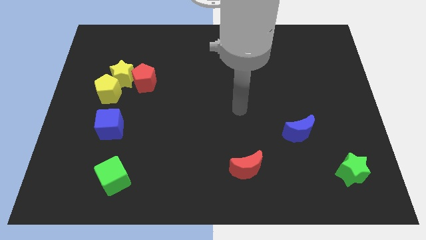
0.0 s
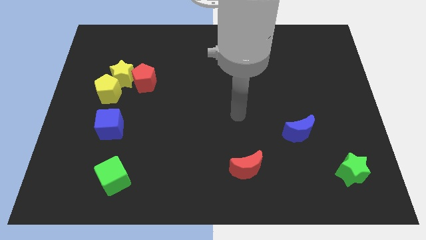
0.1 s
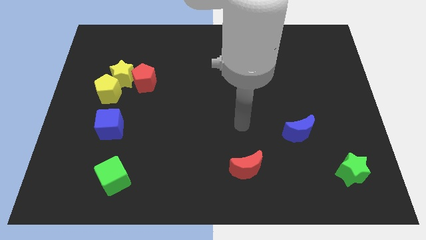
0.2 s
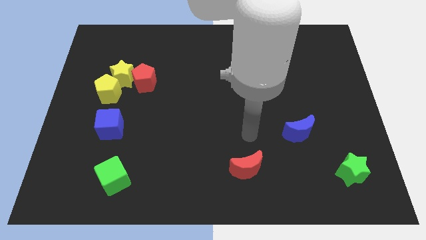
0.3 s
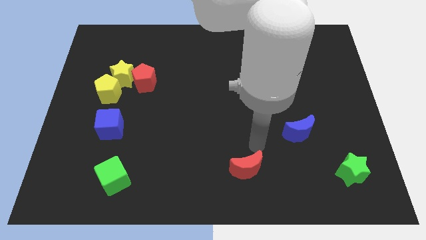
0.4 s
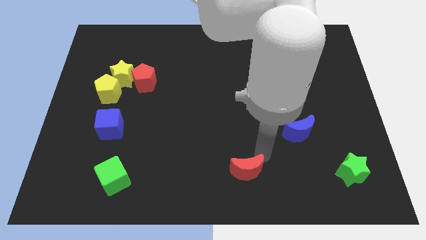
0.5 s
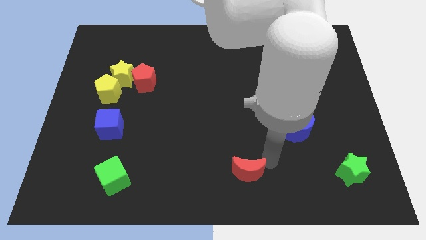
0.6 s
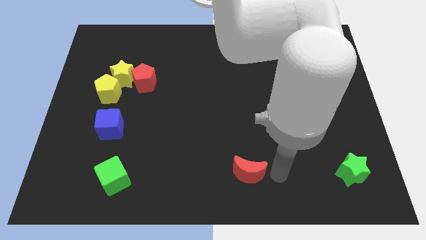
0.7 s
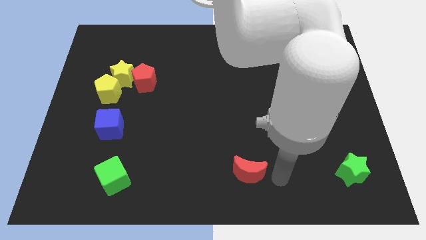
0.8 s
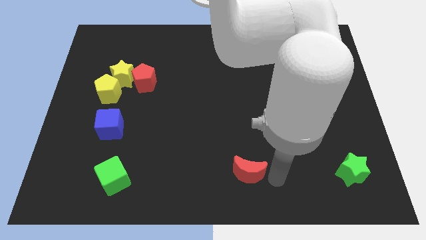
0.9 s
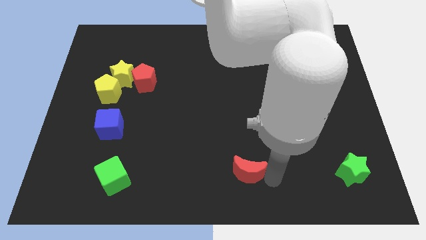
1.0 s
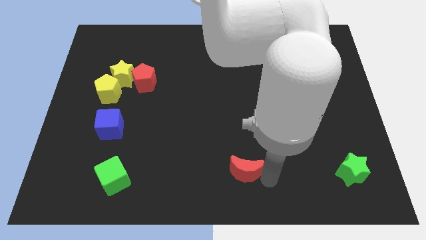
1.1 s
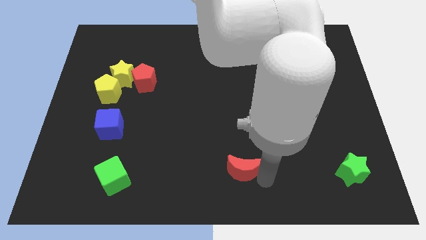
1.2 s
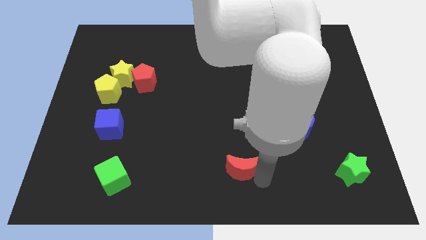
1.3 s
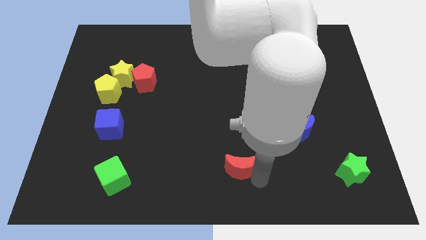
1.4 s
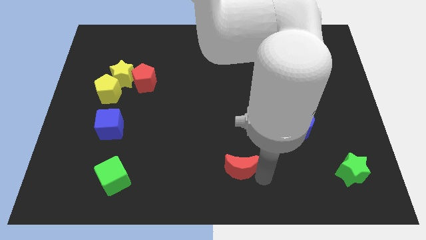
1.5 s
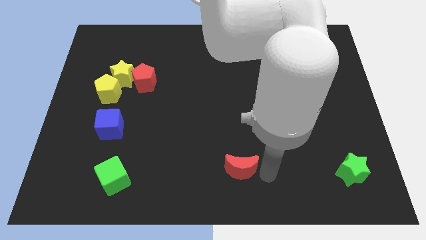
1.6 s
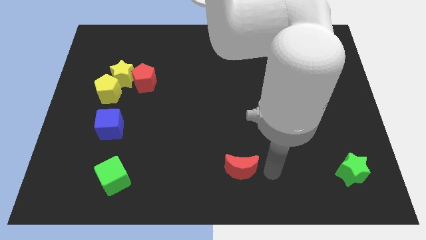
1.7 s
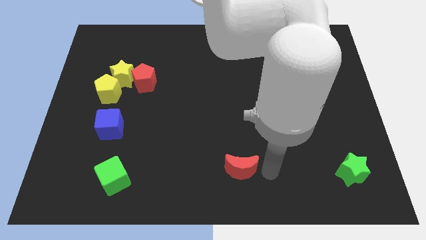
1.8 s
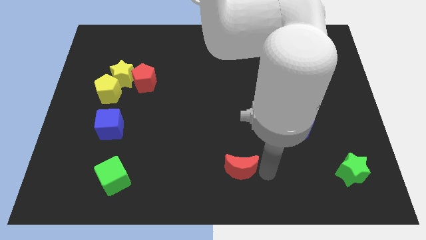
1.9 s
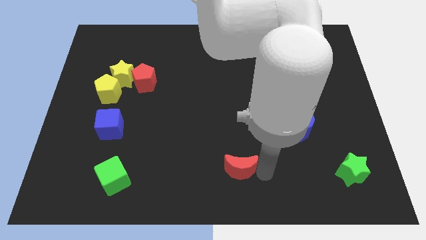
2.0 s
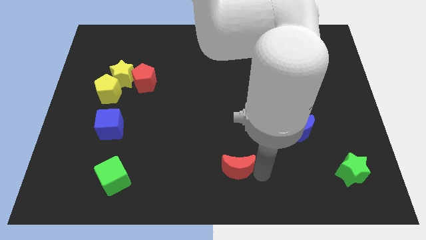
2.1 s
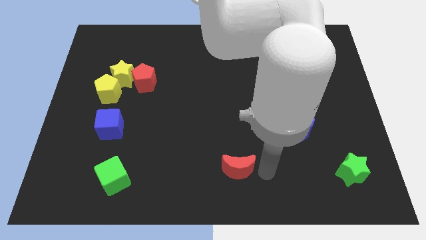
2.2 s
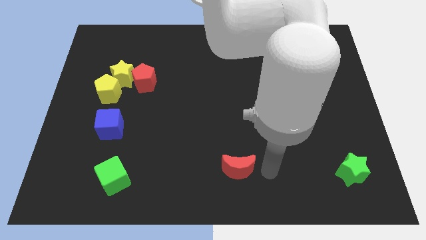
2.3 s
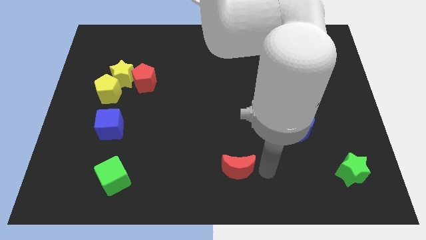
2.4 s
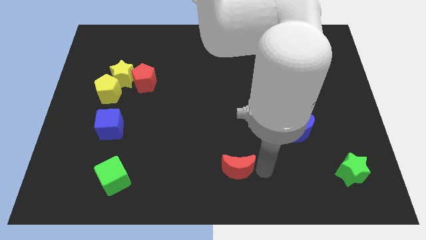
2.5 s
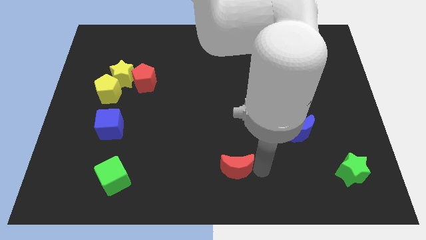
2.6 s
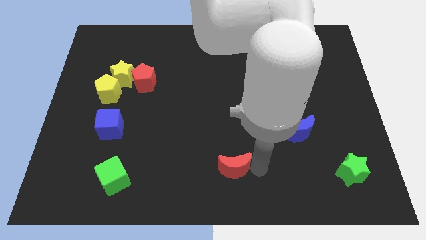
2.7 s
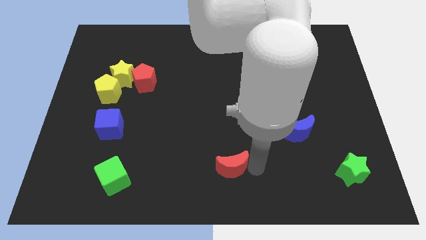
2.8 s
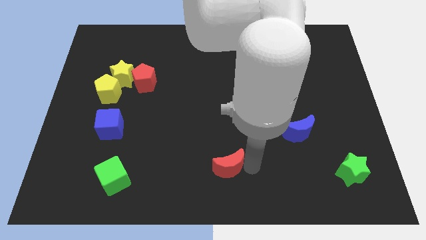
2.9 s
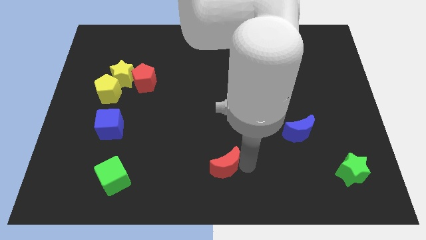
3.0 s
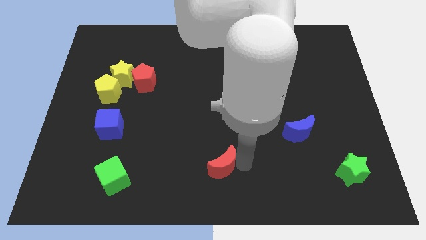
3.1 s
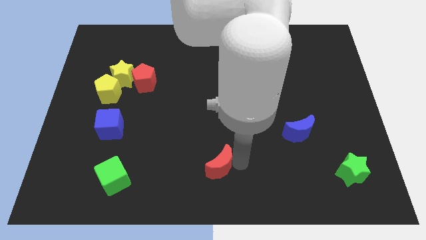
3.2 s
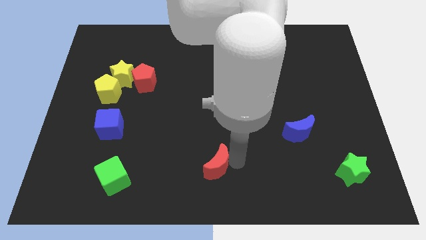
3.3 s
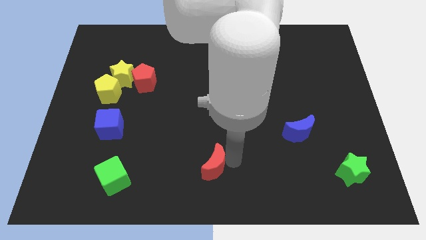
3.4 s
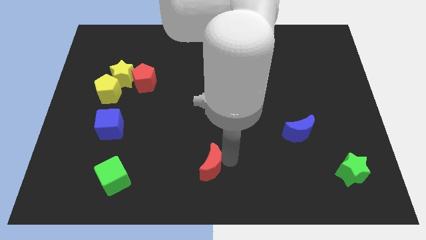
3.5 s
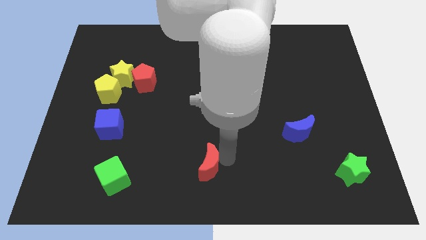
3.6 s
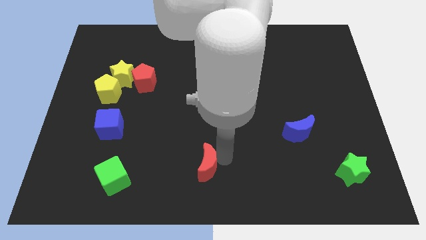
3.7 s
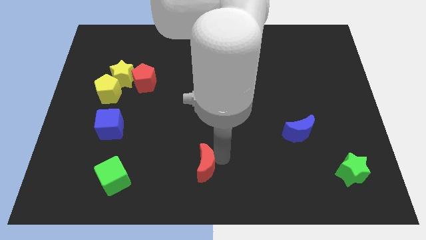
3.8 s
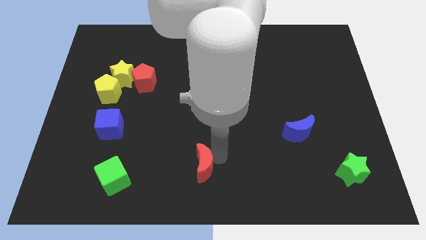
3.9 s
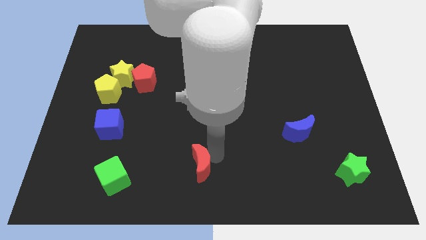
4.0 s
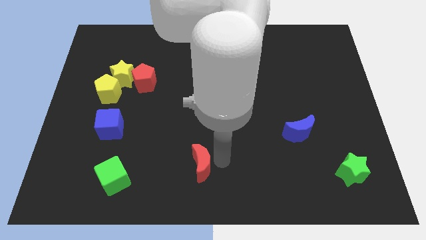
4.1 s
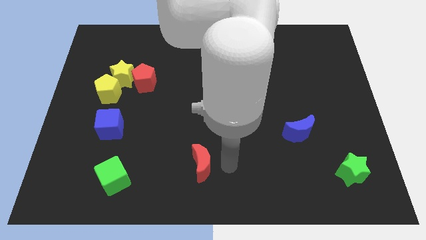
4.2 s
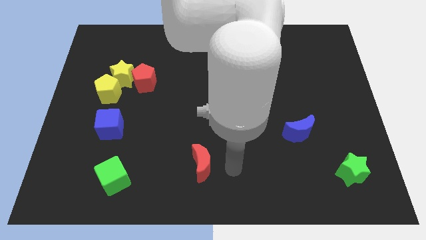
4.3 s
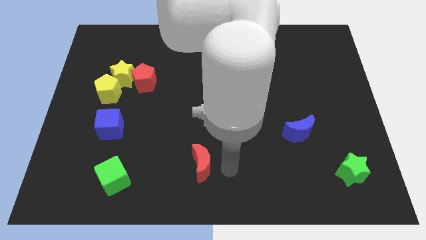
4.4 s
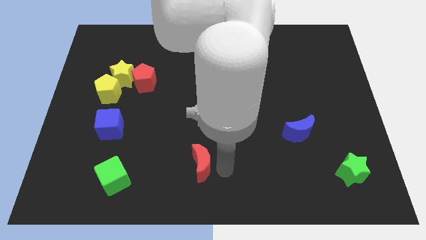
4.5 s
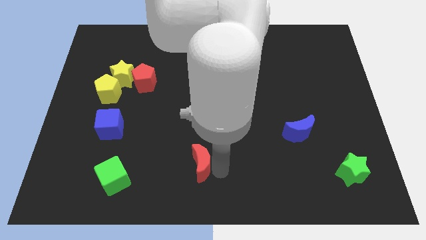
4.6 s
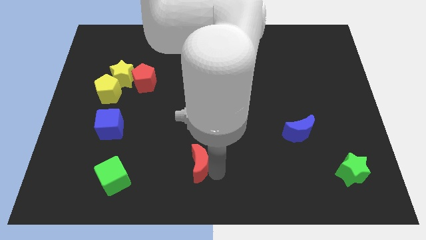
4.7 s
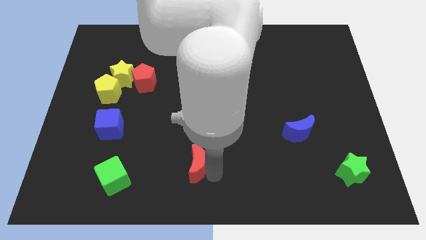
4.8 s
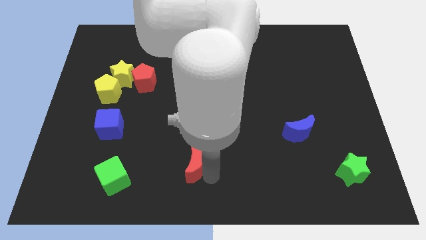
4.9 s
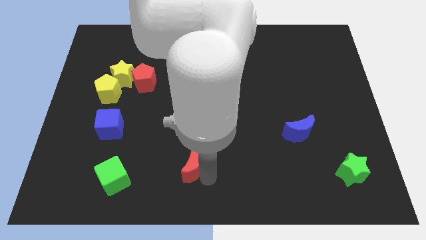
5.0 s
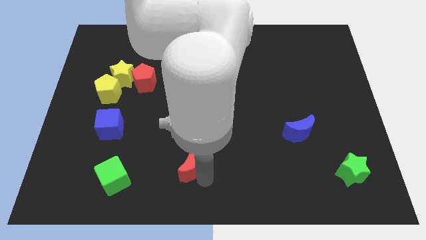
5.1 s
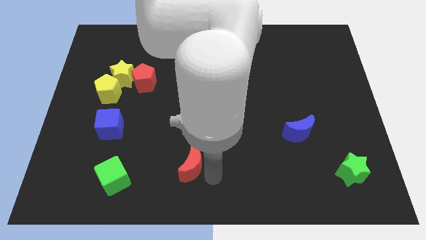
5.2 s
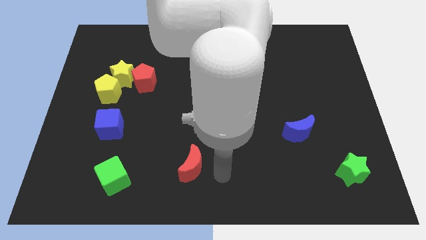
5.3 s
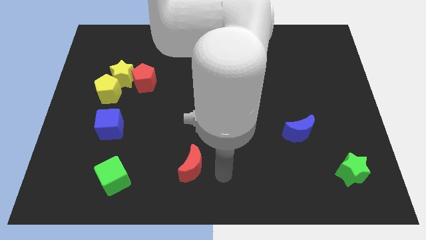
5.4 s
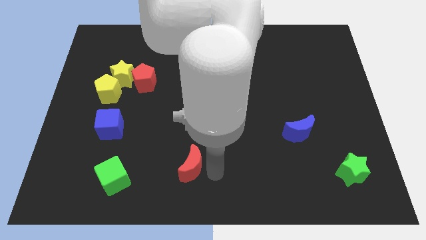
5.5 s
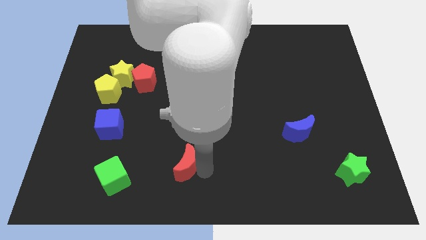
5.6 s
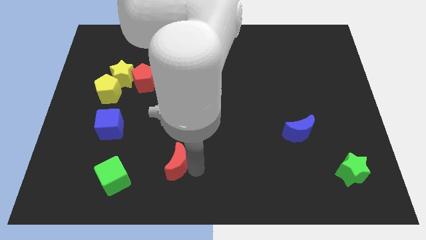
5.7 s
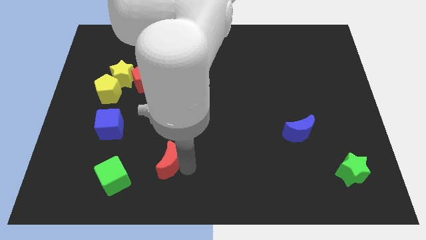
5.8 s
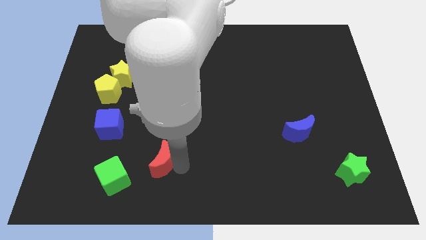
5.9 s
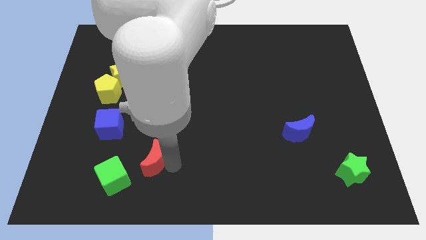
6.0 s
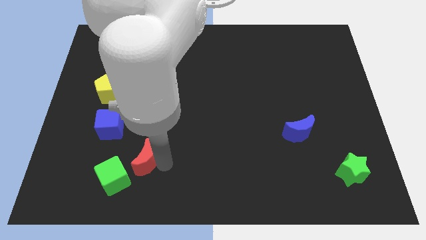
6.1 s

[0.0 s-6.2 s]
move the red moon left

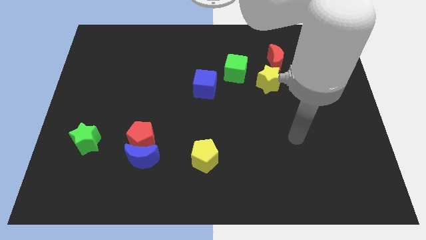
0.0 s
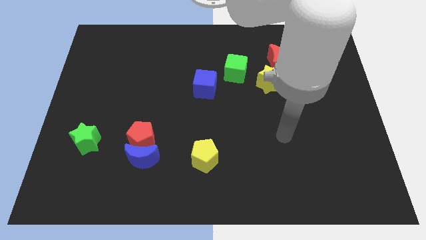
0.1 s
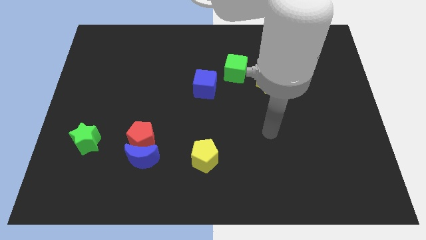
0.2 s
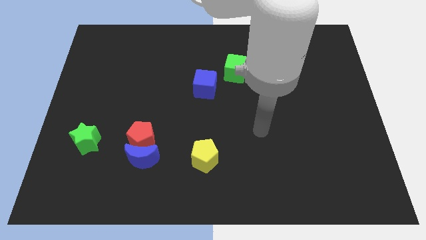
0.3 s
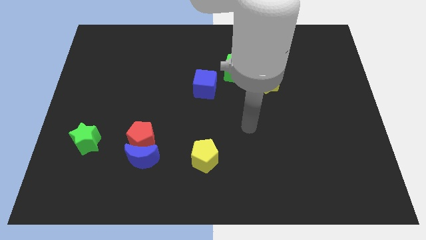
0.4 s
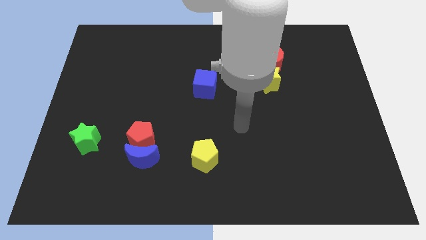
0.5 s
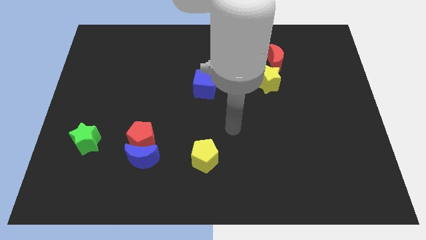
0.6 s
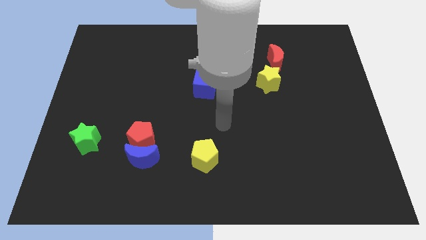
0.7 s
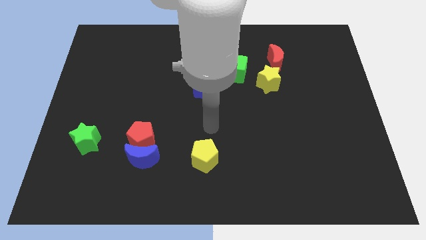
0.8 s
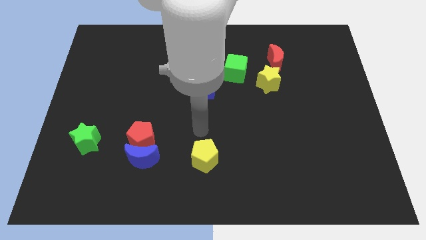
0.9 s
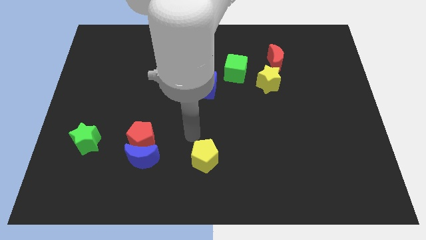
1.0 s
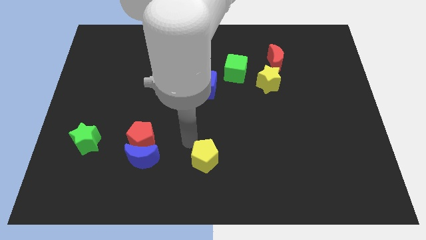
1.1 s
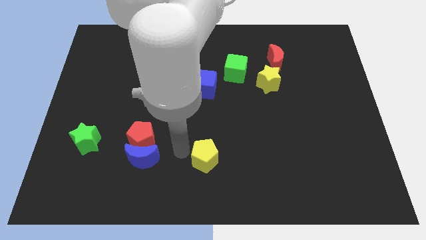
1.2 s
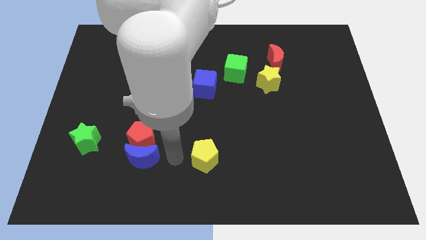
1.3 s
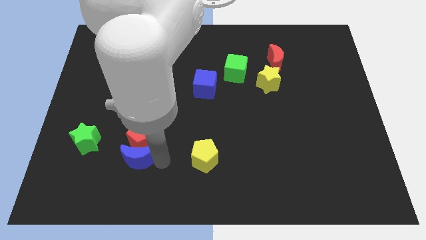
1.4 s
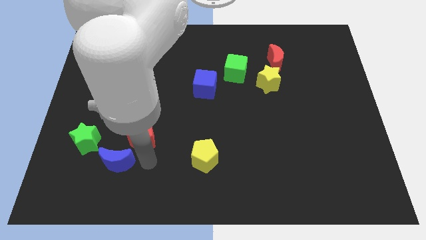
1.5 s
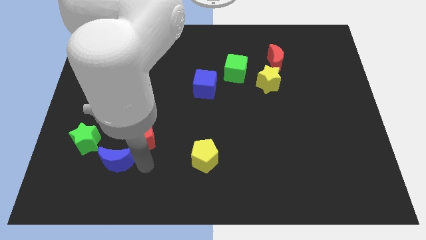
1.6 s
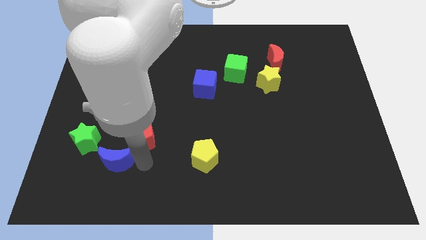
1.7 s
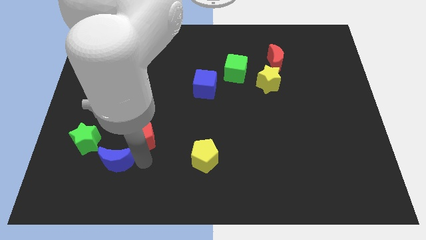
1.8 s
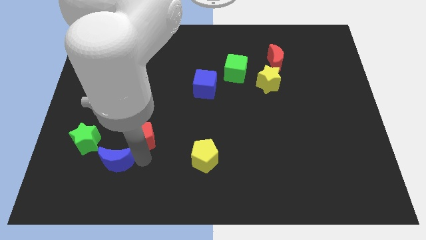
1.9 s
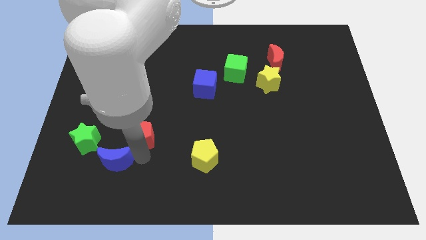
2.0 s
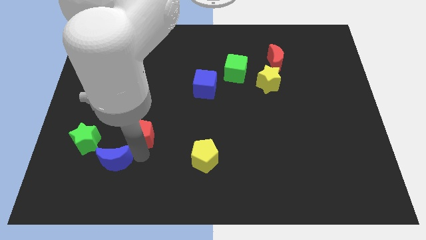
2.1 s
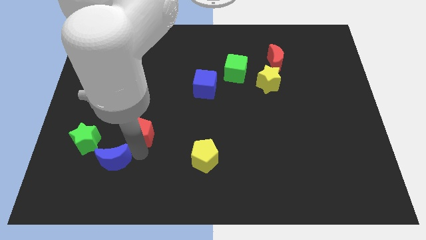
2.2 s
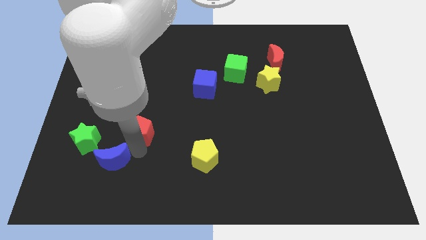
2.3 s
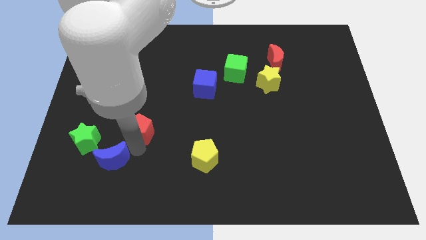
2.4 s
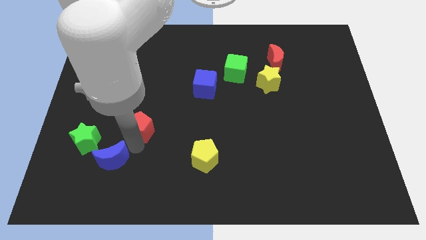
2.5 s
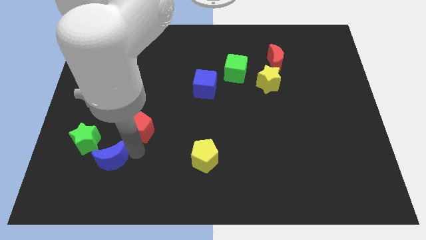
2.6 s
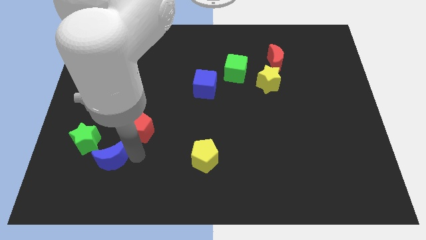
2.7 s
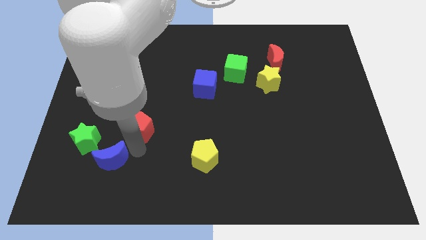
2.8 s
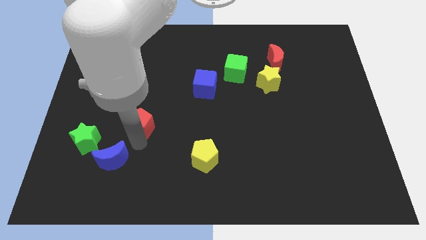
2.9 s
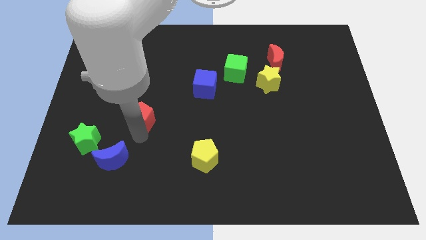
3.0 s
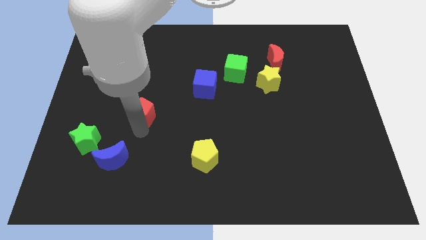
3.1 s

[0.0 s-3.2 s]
slide the red pentagon upwards slightly
